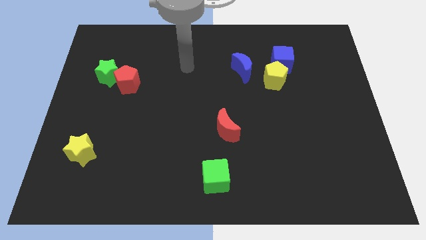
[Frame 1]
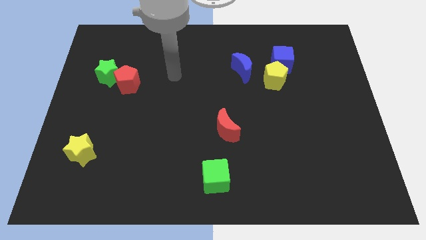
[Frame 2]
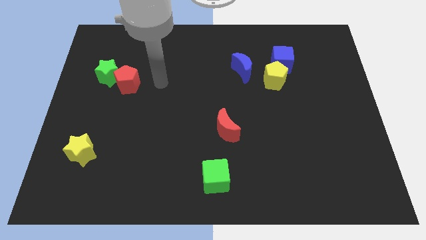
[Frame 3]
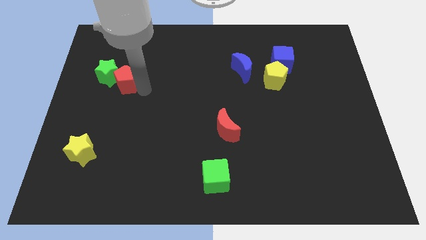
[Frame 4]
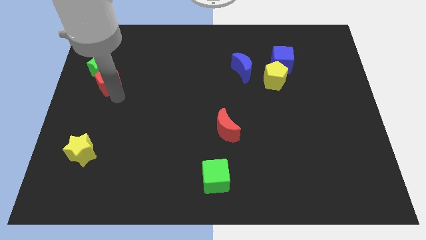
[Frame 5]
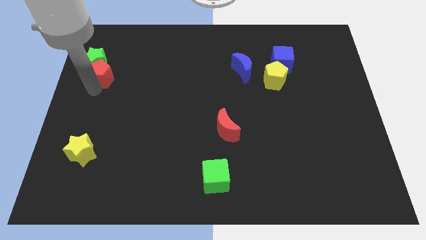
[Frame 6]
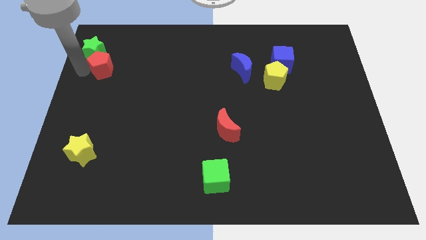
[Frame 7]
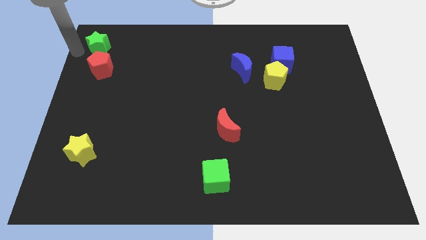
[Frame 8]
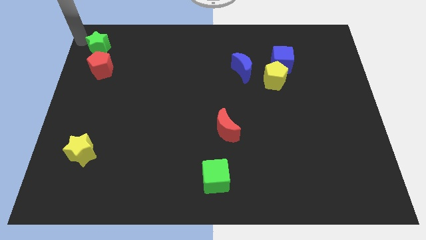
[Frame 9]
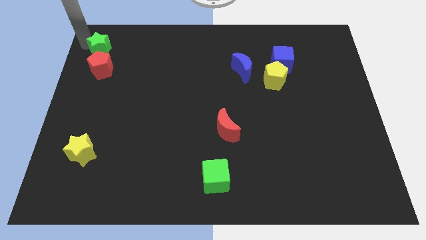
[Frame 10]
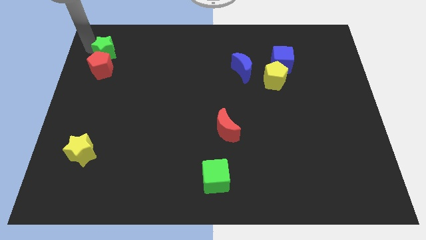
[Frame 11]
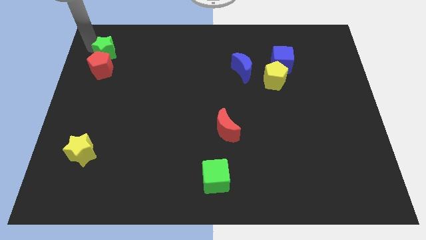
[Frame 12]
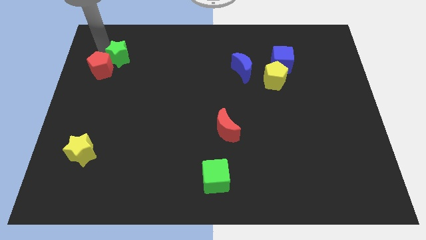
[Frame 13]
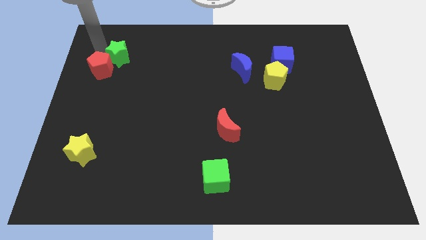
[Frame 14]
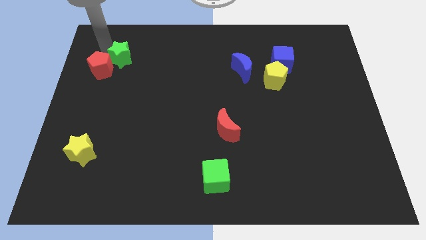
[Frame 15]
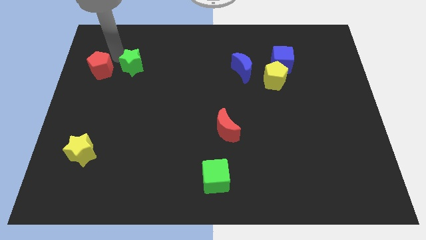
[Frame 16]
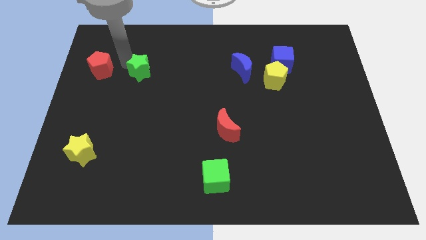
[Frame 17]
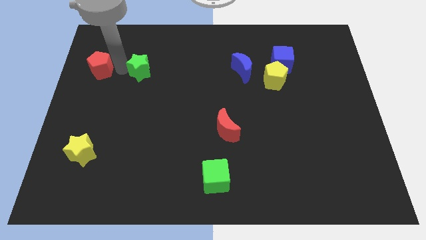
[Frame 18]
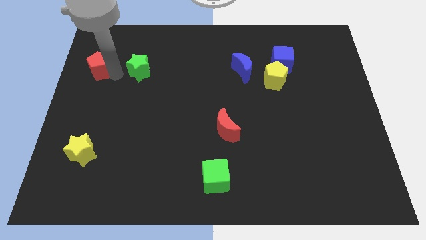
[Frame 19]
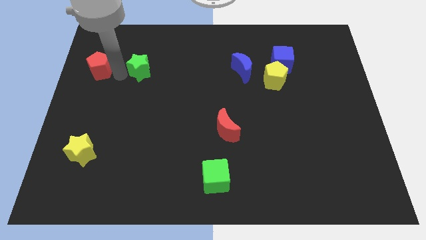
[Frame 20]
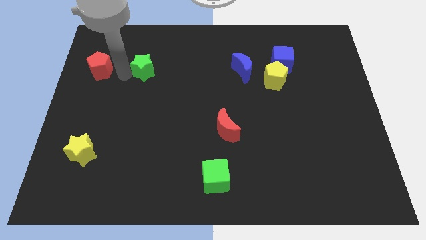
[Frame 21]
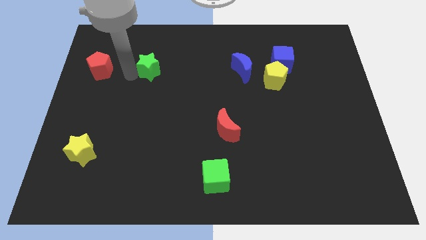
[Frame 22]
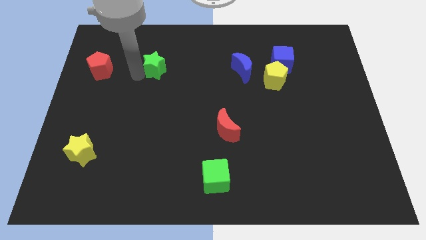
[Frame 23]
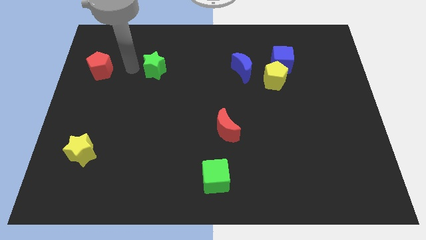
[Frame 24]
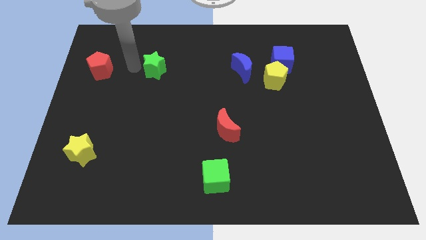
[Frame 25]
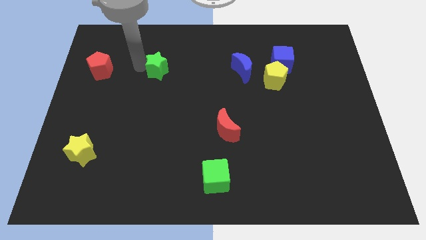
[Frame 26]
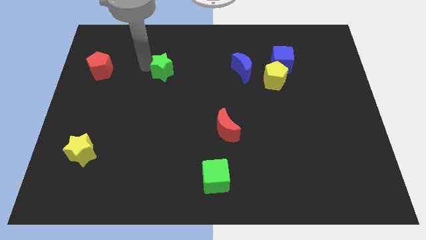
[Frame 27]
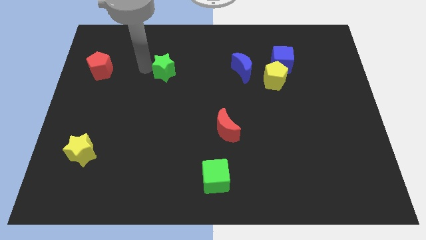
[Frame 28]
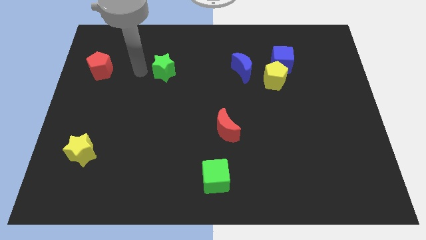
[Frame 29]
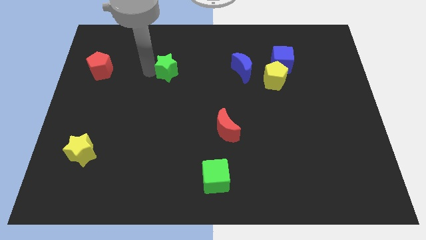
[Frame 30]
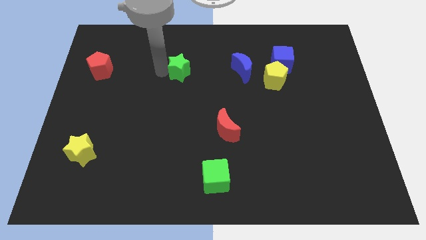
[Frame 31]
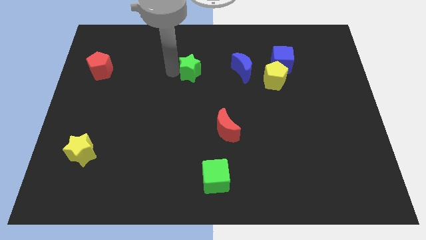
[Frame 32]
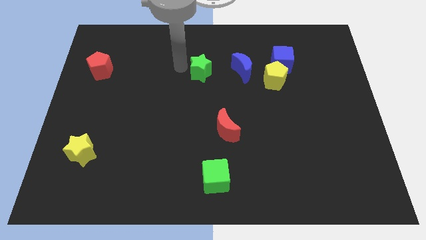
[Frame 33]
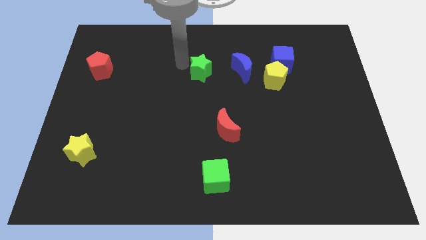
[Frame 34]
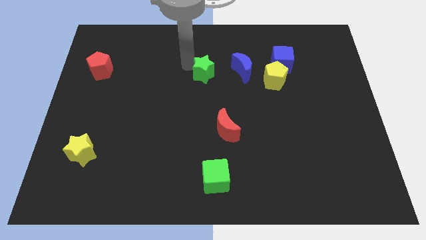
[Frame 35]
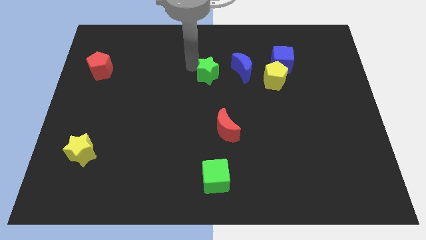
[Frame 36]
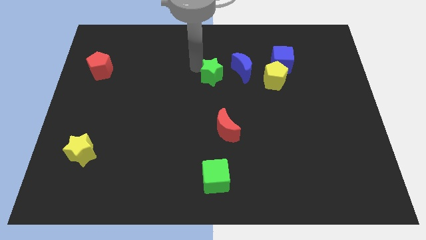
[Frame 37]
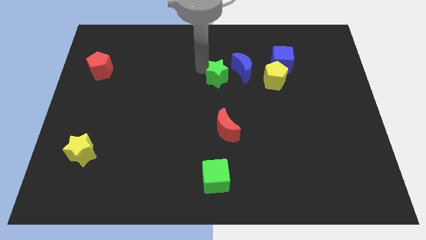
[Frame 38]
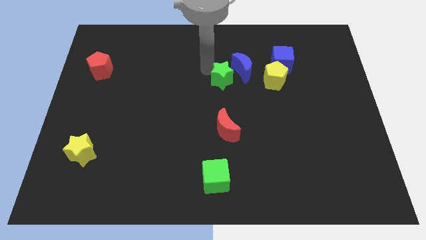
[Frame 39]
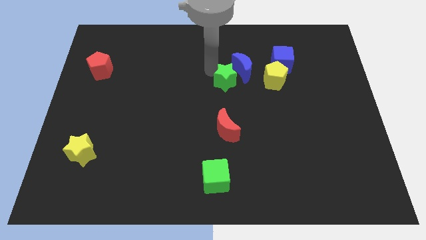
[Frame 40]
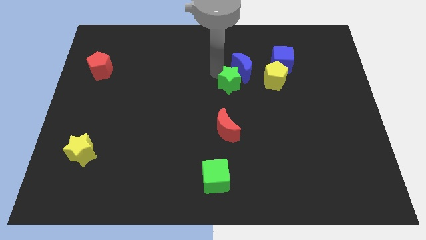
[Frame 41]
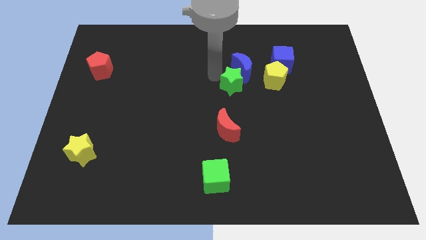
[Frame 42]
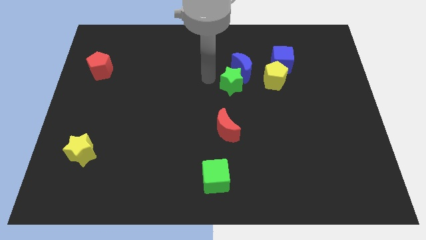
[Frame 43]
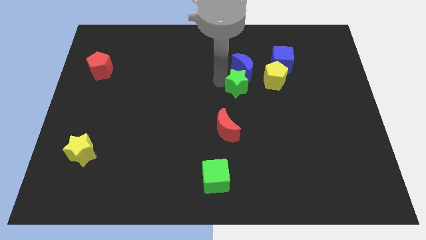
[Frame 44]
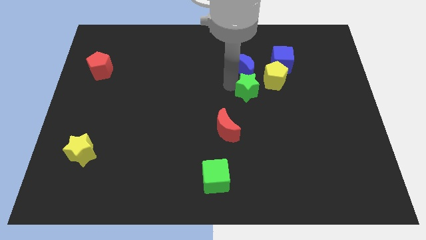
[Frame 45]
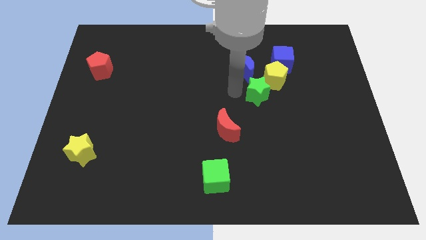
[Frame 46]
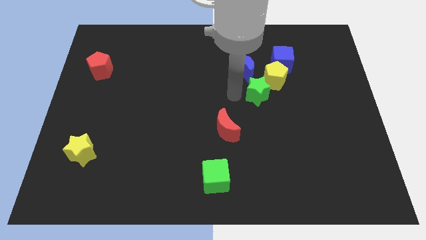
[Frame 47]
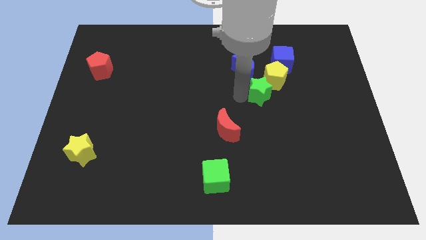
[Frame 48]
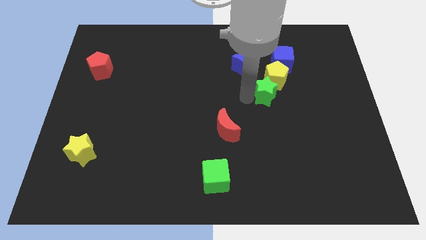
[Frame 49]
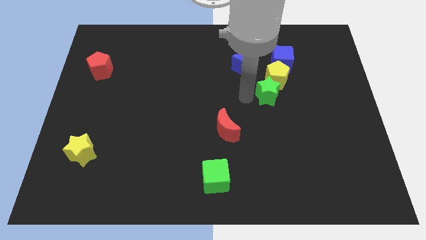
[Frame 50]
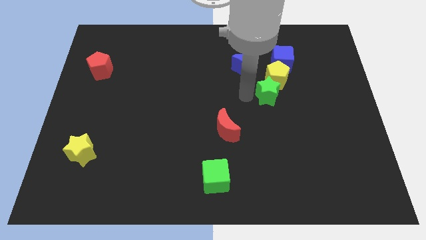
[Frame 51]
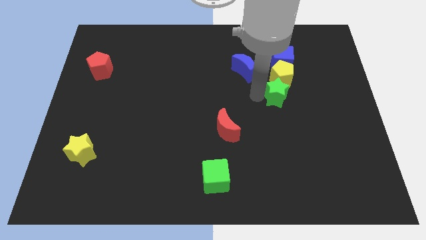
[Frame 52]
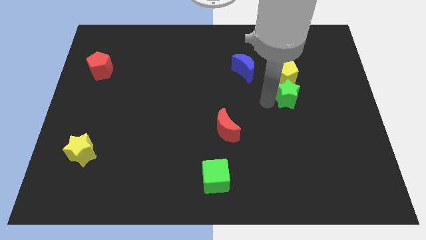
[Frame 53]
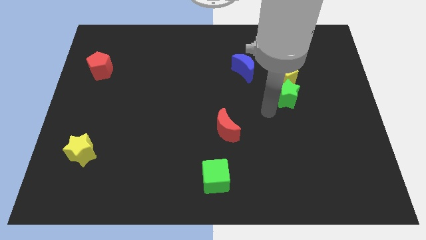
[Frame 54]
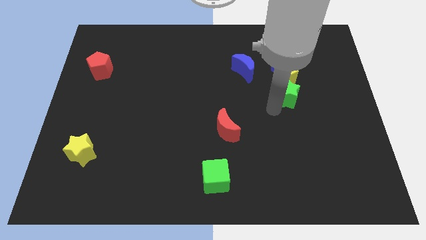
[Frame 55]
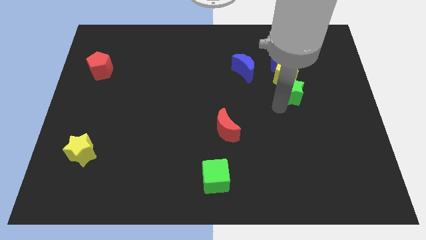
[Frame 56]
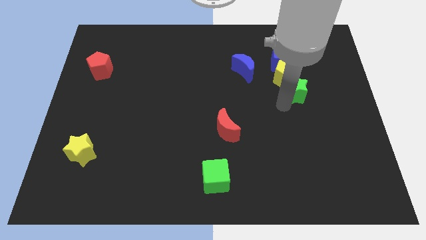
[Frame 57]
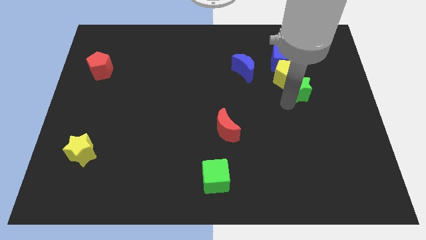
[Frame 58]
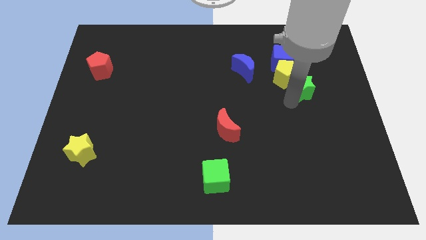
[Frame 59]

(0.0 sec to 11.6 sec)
put the green star just right of the yellow pentagon

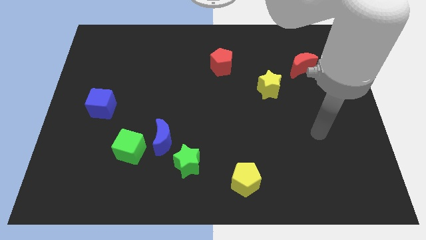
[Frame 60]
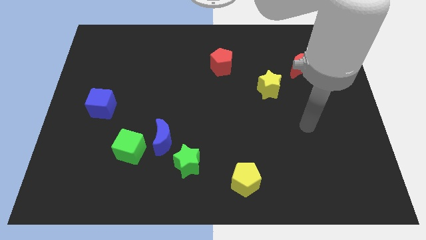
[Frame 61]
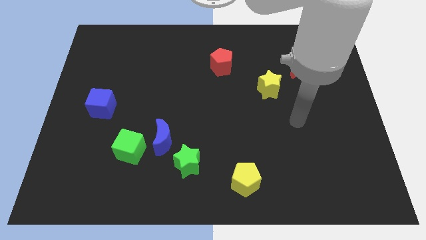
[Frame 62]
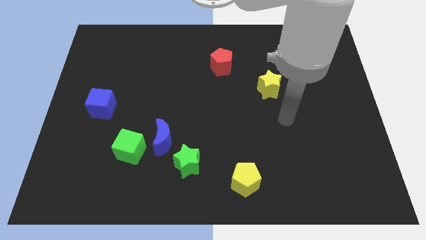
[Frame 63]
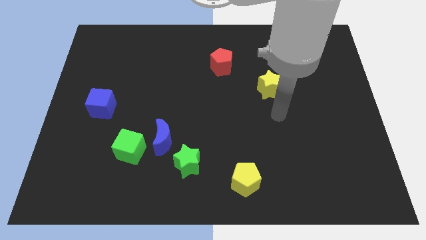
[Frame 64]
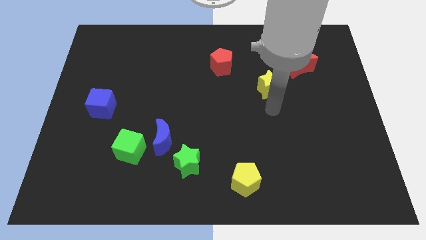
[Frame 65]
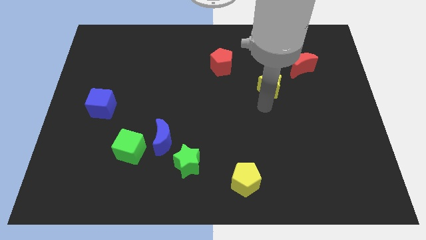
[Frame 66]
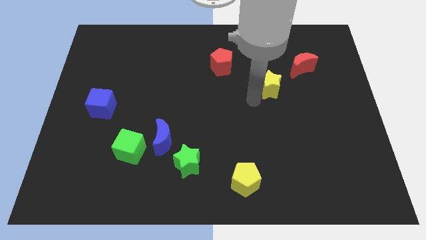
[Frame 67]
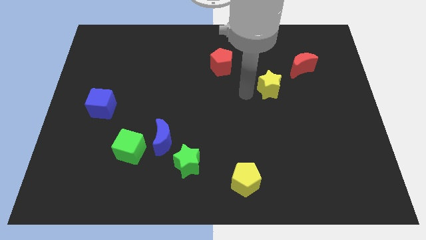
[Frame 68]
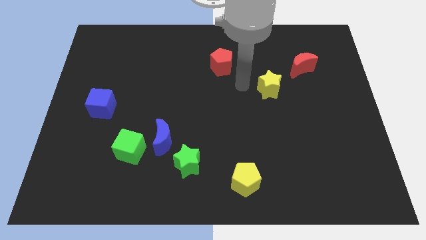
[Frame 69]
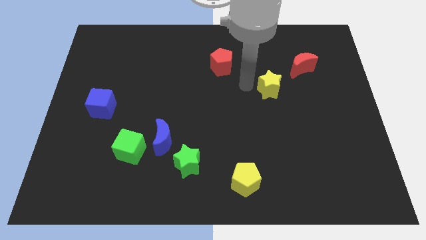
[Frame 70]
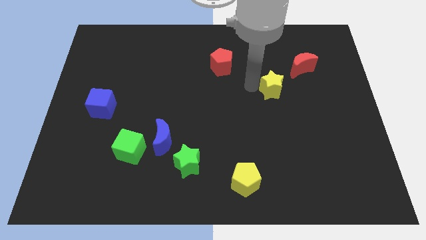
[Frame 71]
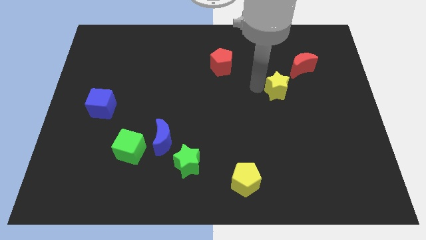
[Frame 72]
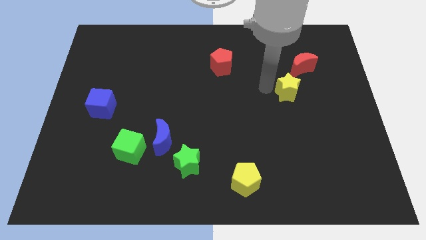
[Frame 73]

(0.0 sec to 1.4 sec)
push the yellow star below the red moon
